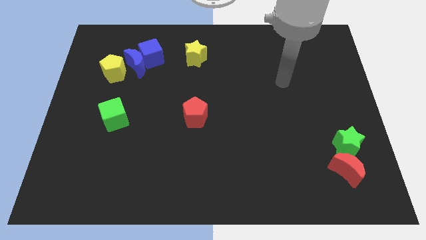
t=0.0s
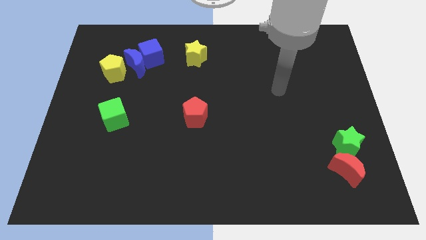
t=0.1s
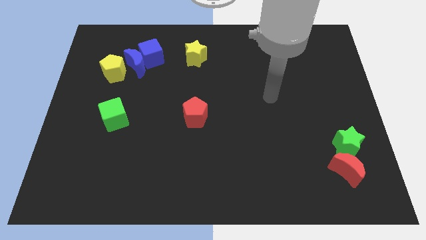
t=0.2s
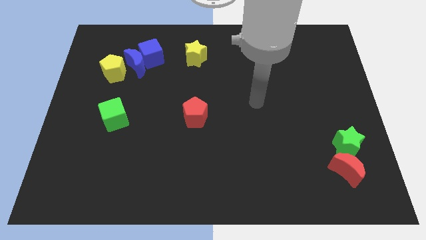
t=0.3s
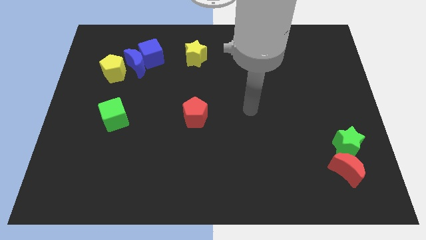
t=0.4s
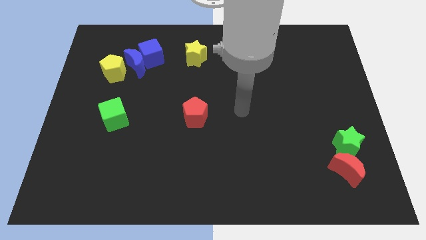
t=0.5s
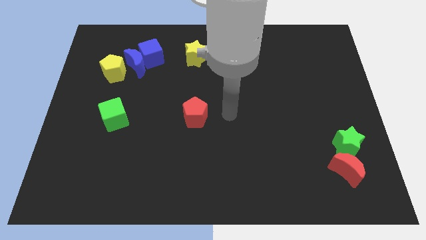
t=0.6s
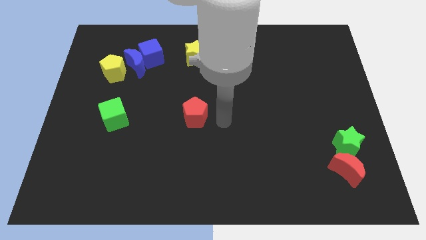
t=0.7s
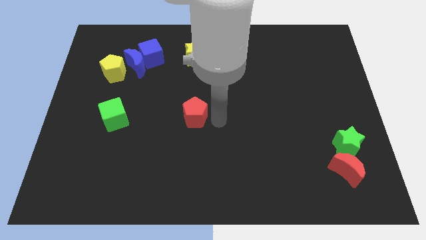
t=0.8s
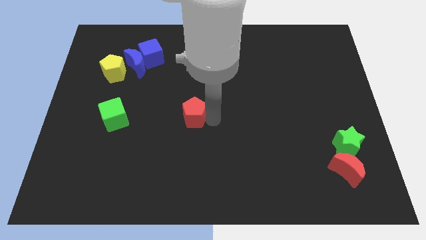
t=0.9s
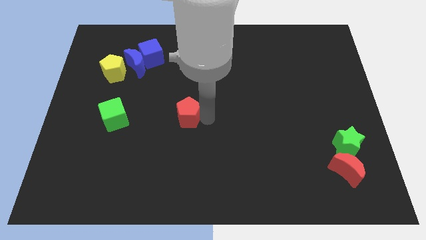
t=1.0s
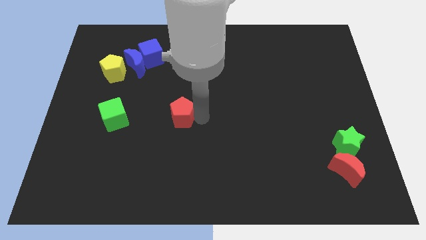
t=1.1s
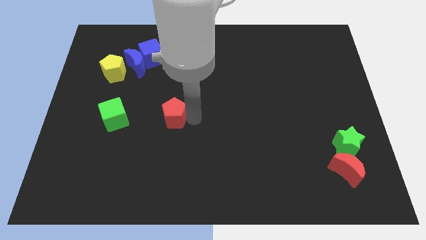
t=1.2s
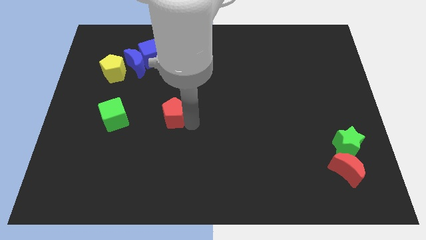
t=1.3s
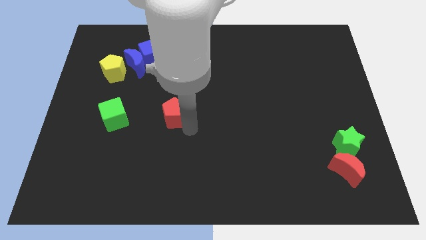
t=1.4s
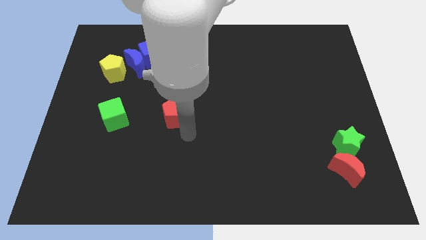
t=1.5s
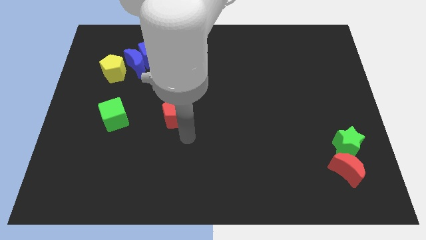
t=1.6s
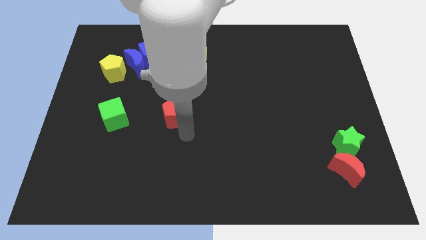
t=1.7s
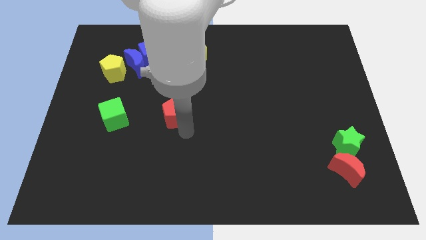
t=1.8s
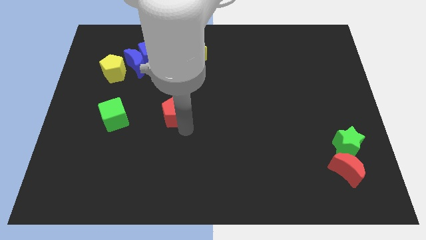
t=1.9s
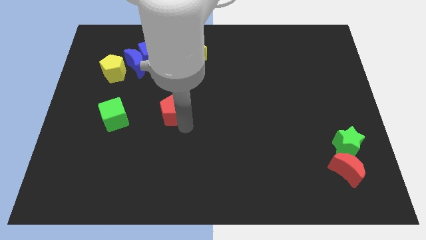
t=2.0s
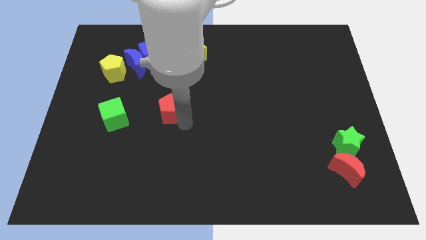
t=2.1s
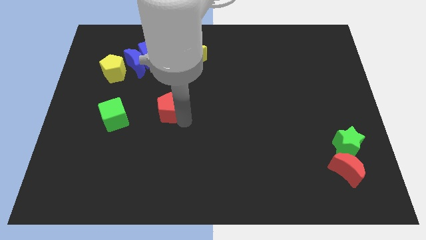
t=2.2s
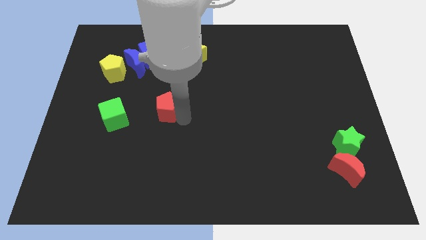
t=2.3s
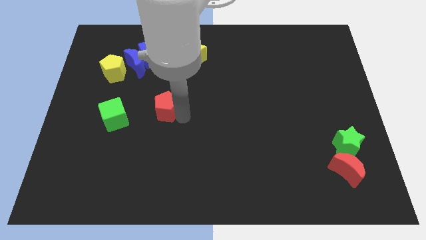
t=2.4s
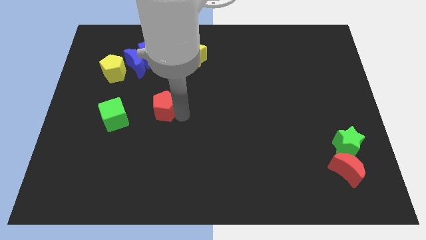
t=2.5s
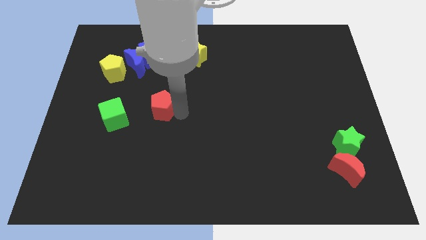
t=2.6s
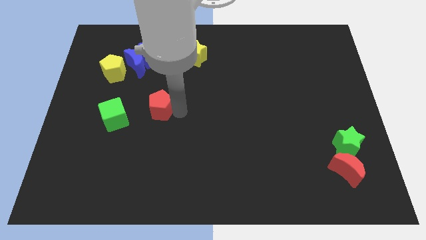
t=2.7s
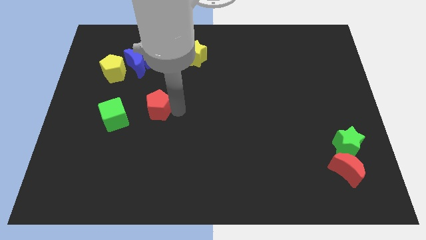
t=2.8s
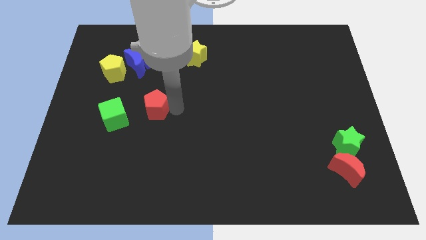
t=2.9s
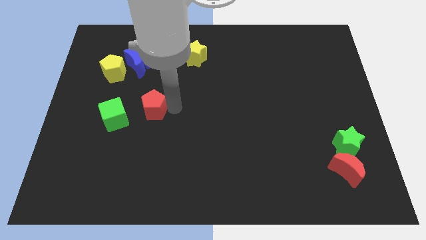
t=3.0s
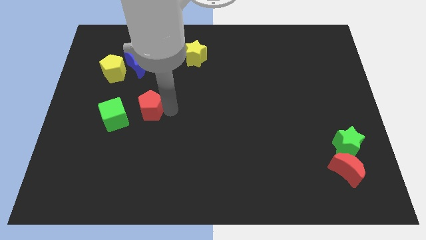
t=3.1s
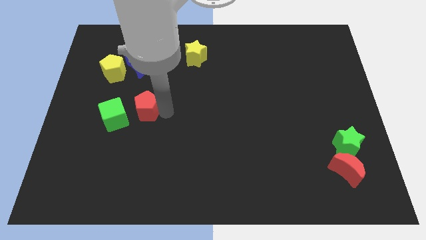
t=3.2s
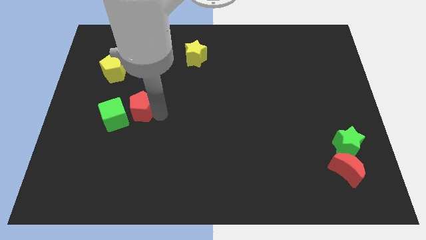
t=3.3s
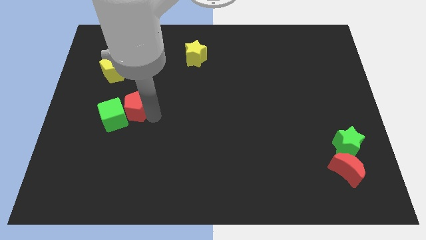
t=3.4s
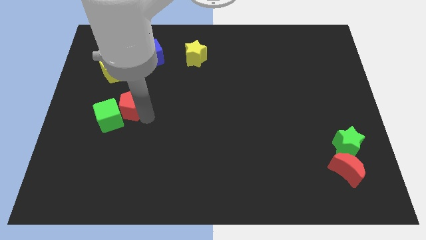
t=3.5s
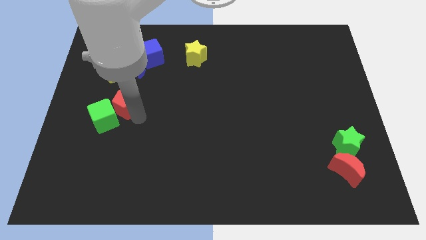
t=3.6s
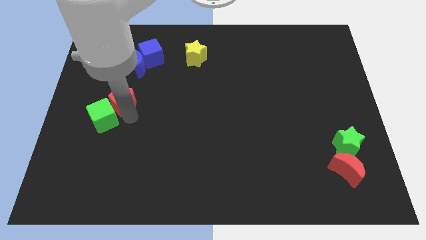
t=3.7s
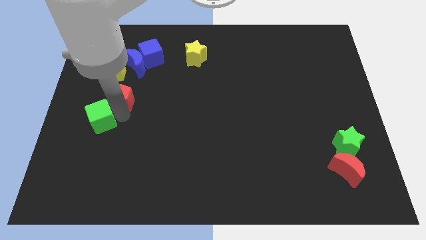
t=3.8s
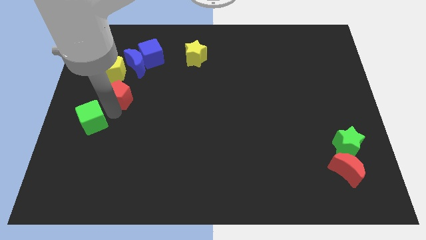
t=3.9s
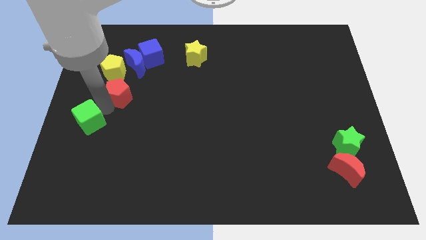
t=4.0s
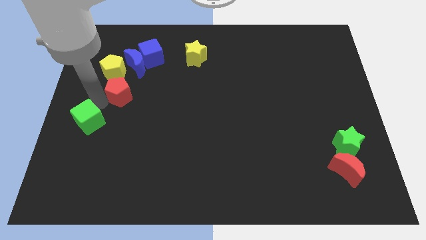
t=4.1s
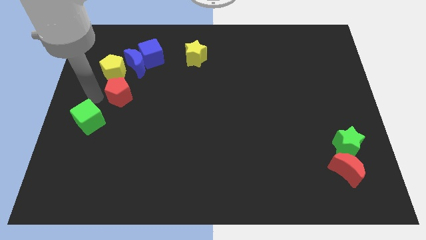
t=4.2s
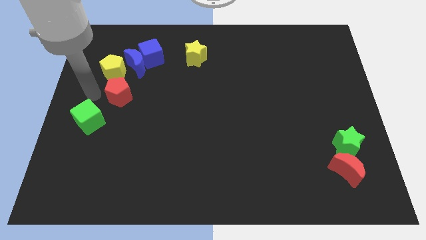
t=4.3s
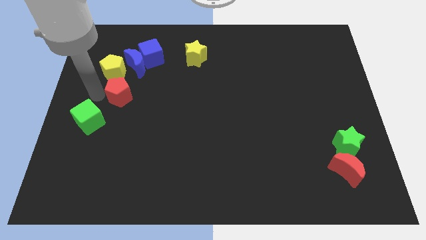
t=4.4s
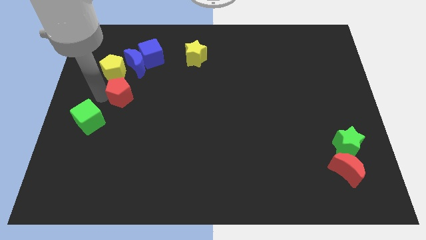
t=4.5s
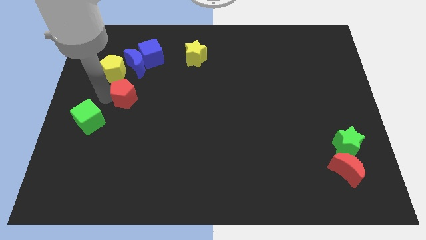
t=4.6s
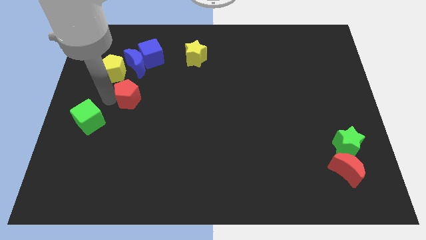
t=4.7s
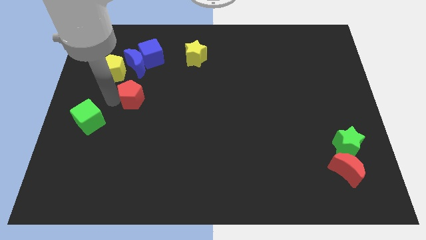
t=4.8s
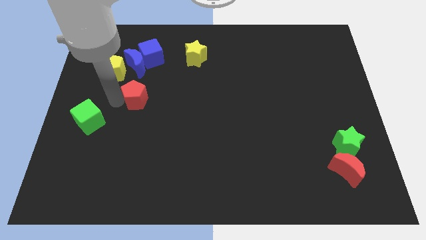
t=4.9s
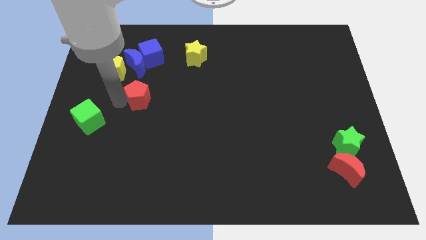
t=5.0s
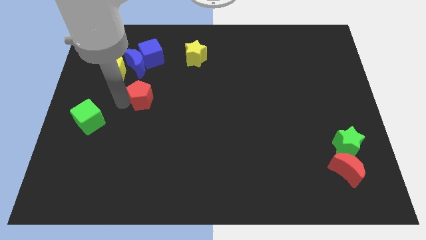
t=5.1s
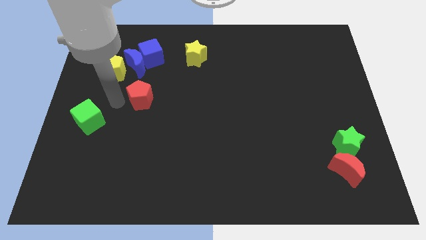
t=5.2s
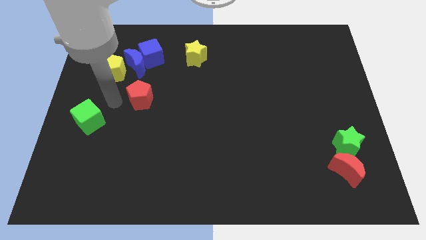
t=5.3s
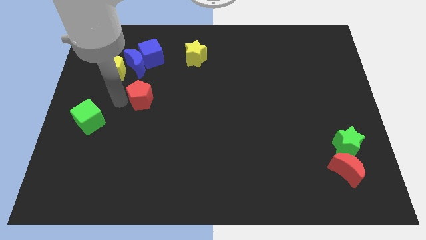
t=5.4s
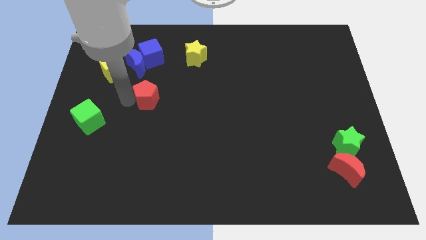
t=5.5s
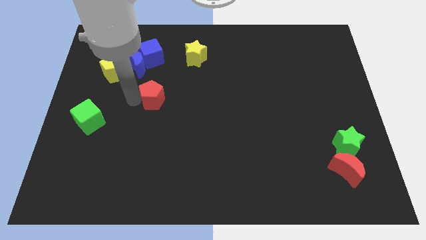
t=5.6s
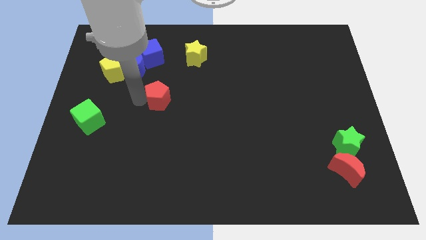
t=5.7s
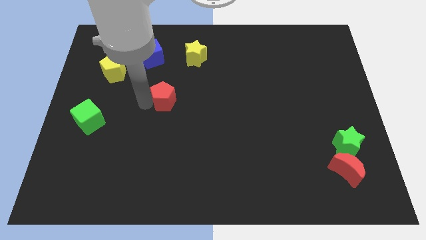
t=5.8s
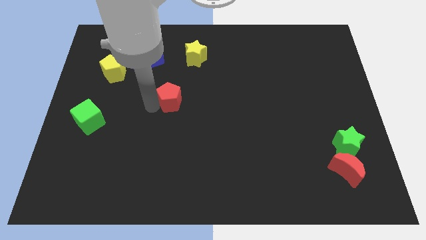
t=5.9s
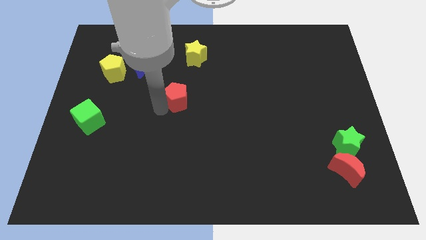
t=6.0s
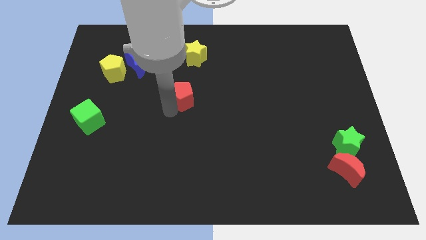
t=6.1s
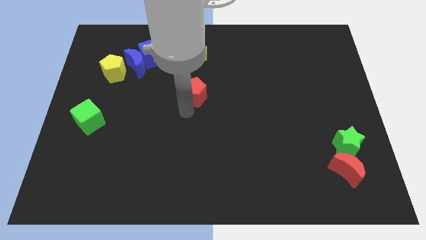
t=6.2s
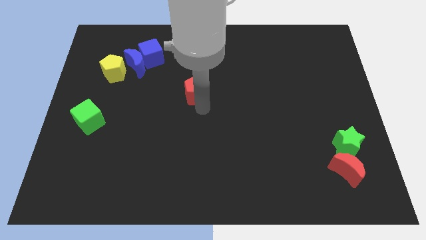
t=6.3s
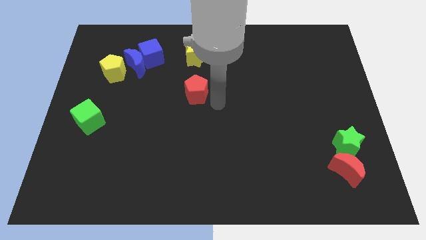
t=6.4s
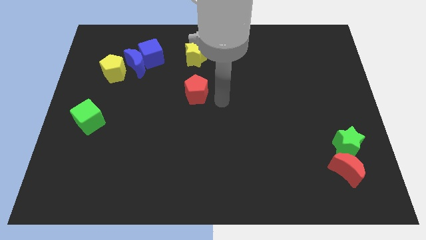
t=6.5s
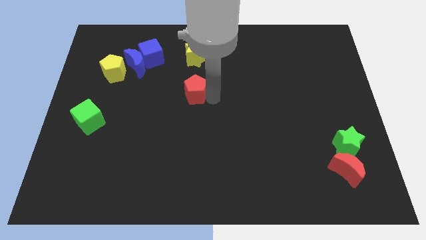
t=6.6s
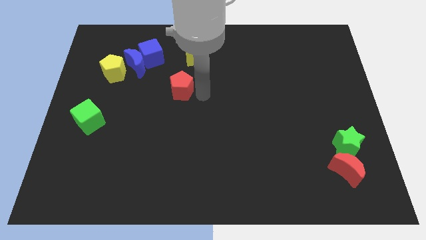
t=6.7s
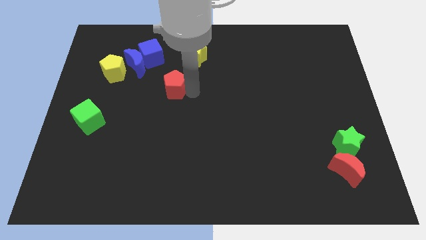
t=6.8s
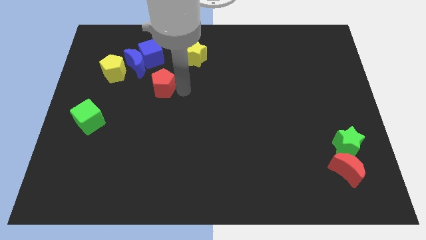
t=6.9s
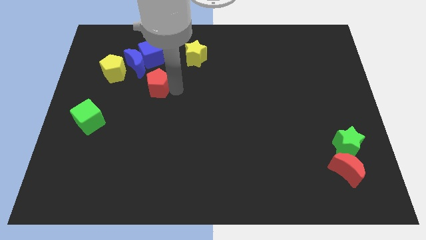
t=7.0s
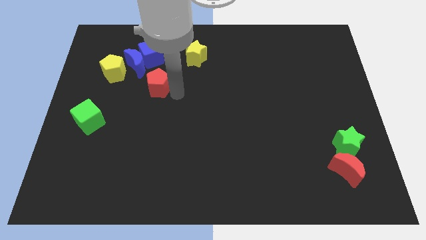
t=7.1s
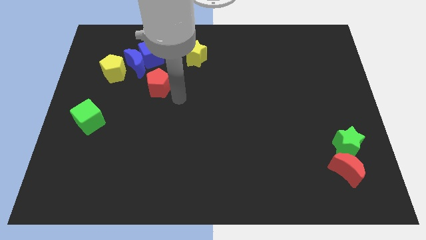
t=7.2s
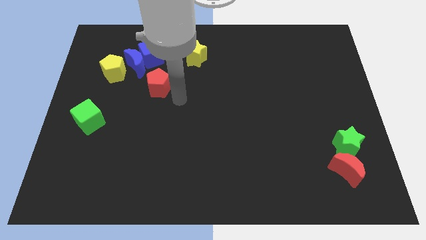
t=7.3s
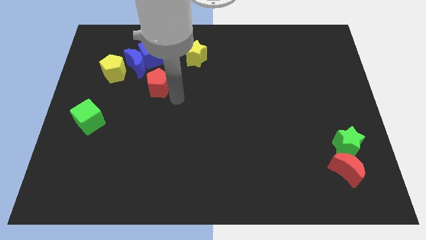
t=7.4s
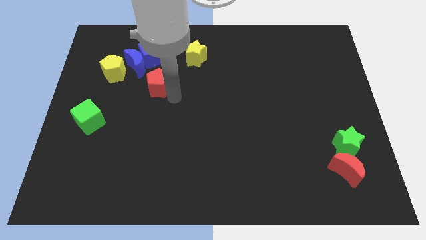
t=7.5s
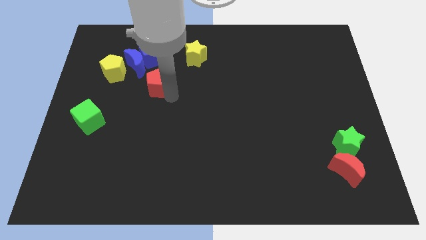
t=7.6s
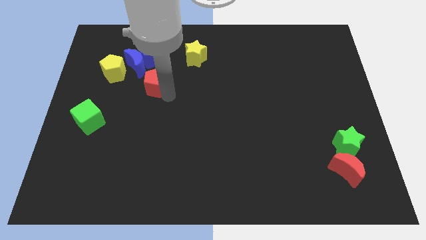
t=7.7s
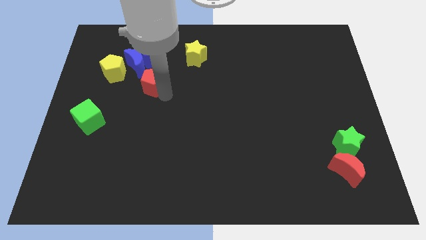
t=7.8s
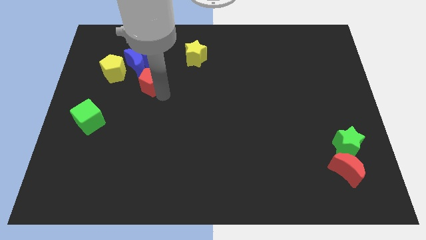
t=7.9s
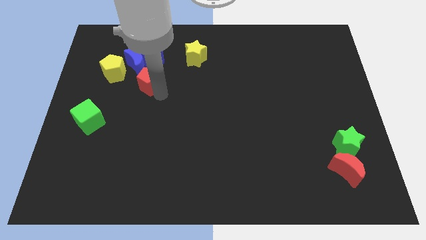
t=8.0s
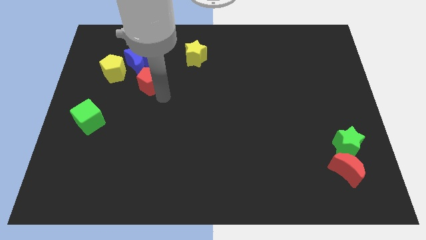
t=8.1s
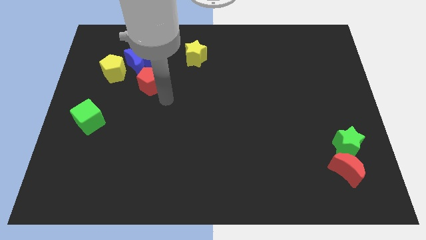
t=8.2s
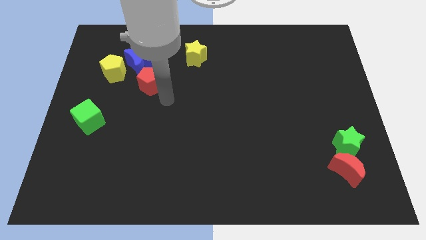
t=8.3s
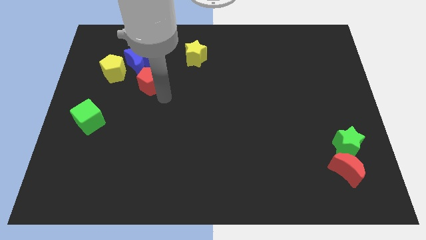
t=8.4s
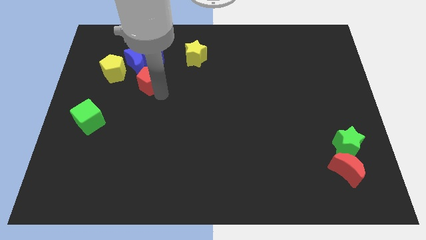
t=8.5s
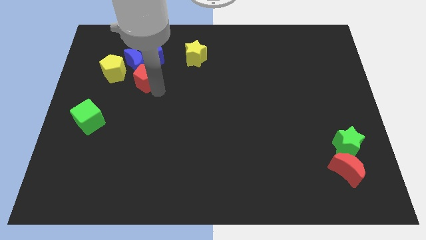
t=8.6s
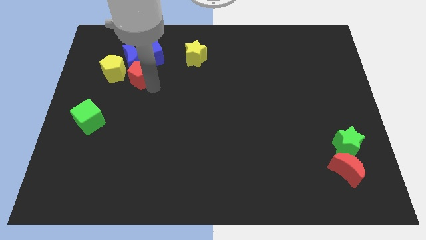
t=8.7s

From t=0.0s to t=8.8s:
slide the red pentagon close to the blue moon
